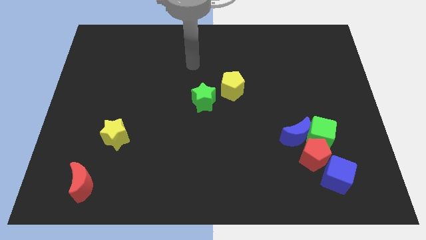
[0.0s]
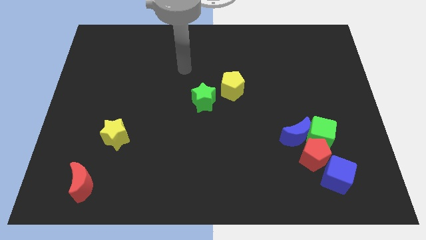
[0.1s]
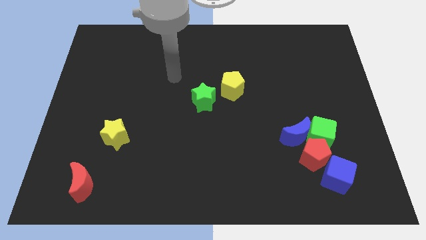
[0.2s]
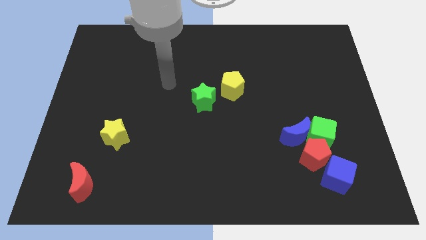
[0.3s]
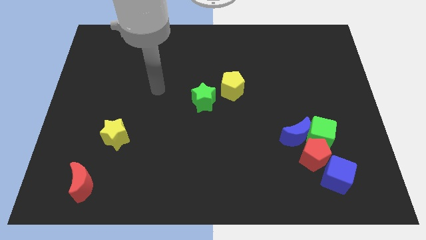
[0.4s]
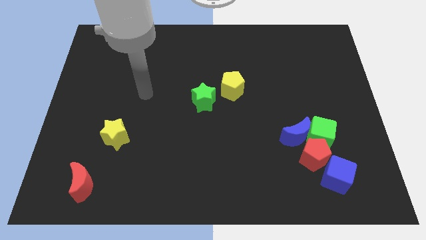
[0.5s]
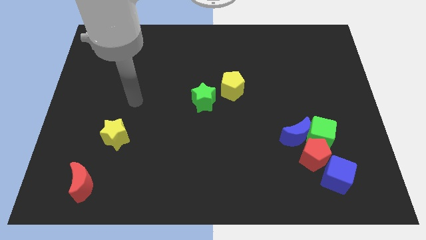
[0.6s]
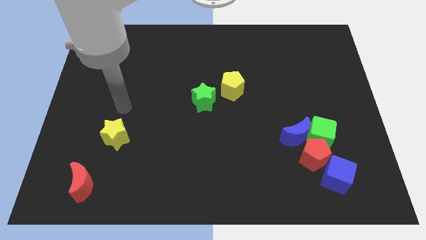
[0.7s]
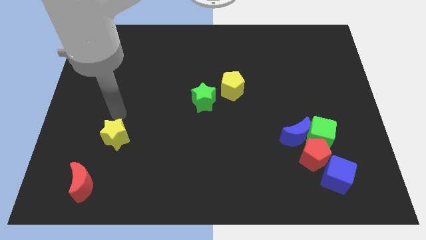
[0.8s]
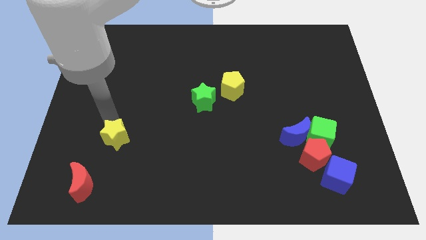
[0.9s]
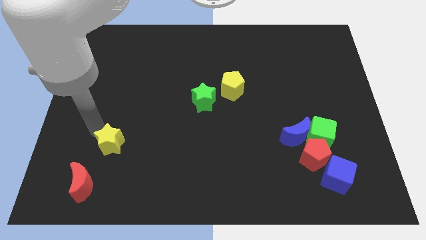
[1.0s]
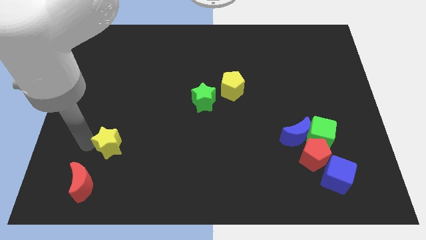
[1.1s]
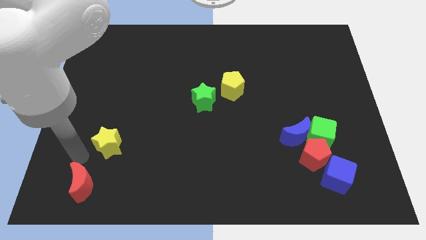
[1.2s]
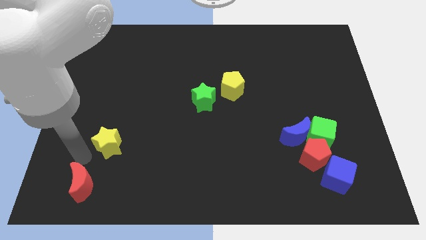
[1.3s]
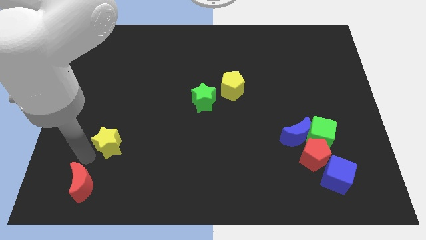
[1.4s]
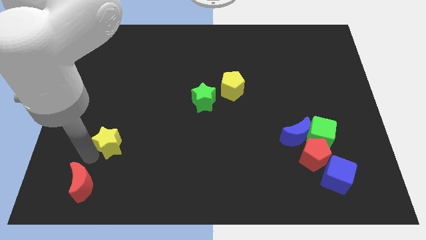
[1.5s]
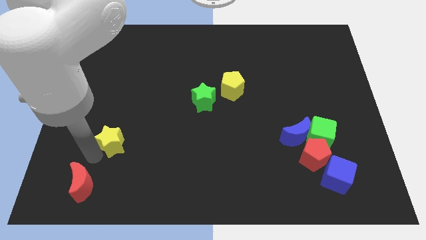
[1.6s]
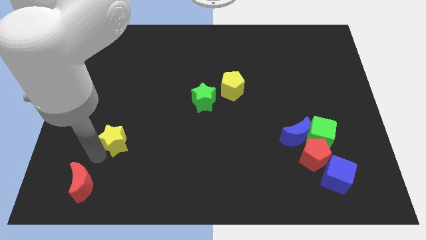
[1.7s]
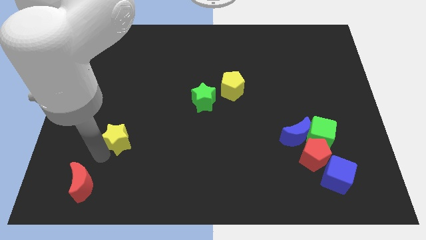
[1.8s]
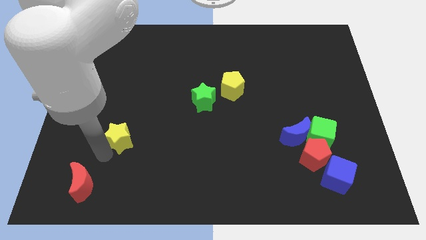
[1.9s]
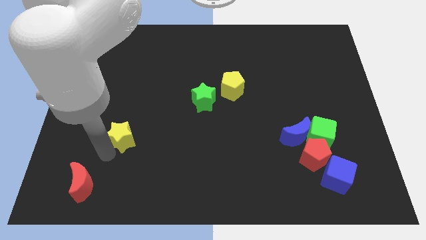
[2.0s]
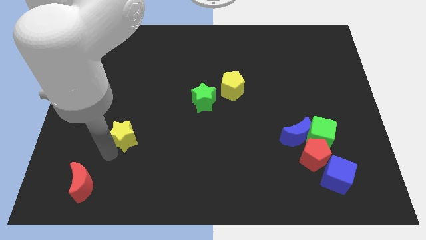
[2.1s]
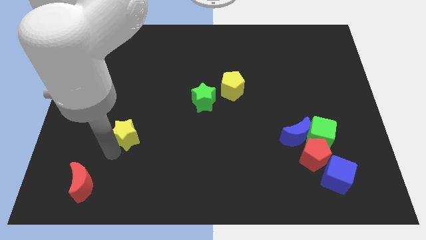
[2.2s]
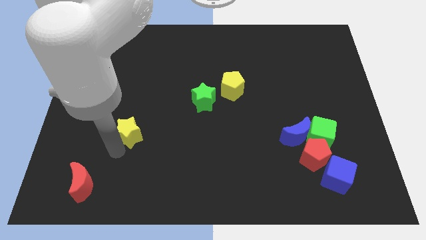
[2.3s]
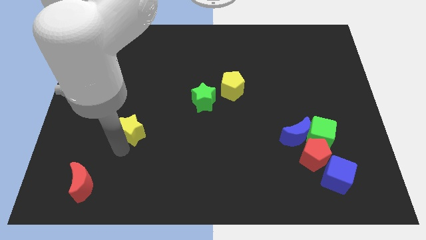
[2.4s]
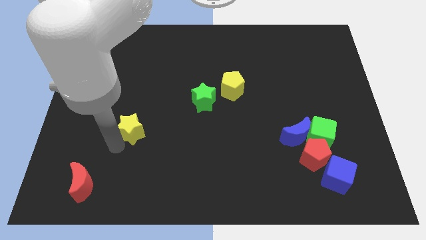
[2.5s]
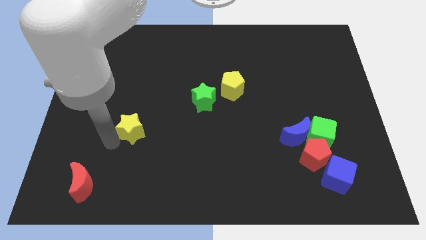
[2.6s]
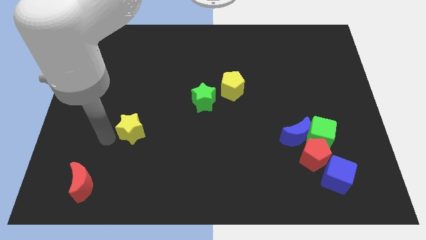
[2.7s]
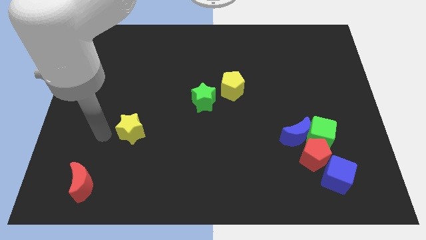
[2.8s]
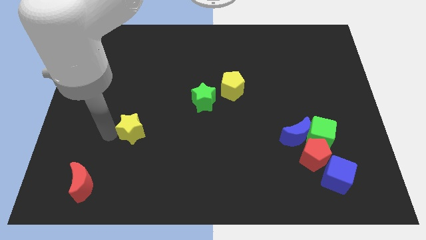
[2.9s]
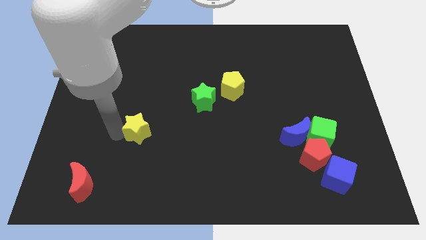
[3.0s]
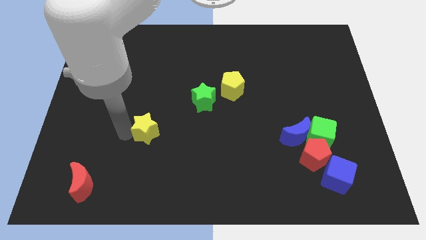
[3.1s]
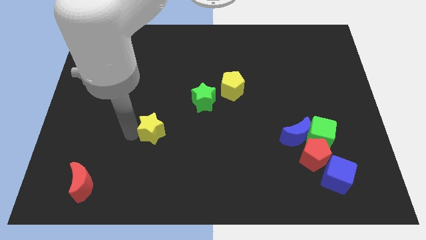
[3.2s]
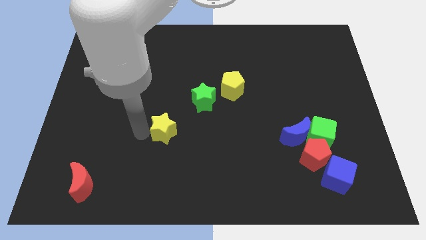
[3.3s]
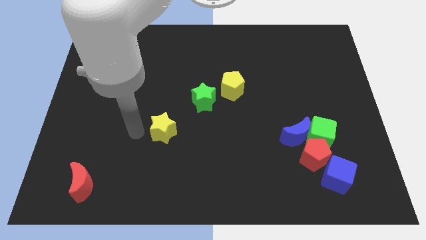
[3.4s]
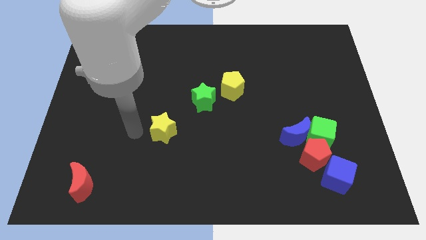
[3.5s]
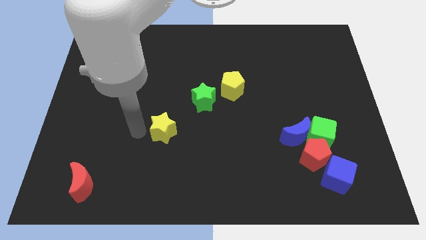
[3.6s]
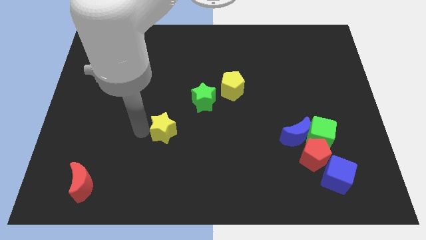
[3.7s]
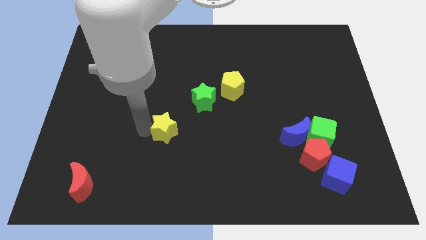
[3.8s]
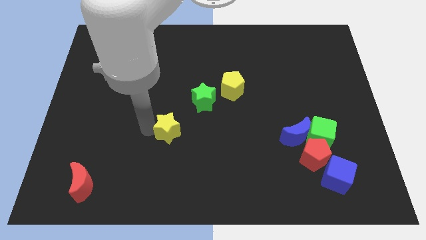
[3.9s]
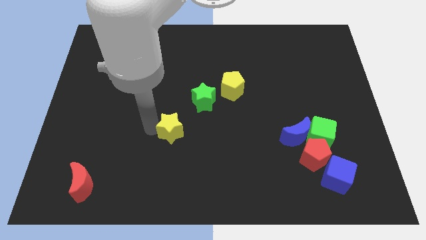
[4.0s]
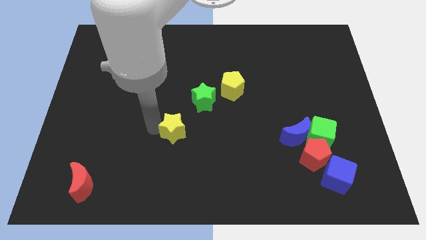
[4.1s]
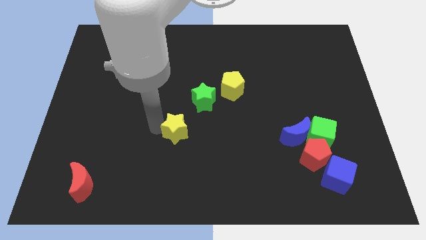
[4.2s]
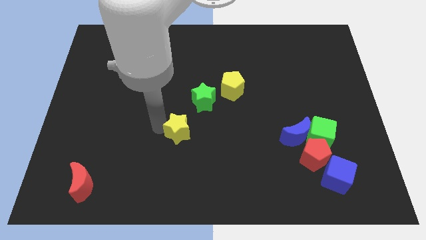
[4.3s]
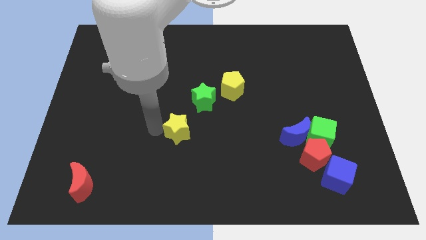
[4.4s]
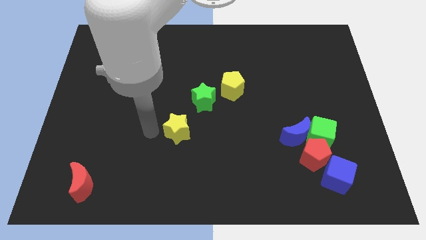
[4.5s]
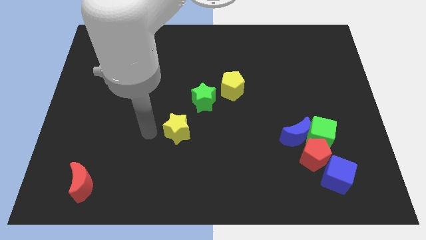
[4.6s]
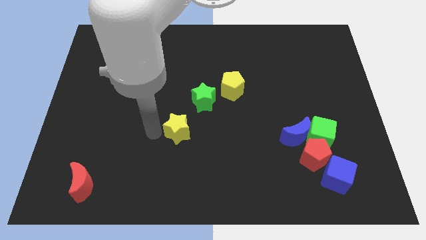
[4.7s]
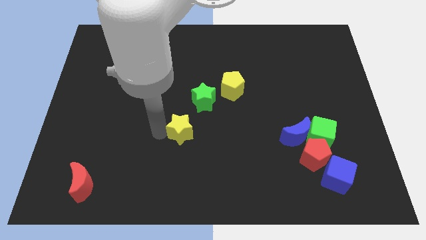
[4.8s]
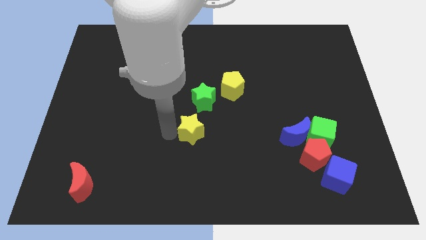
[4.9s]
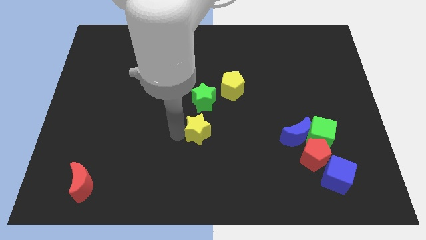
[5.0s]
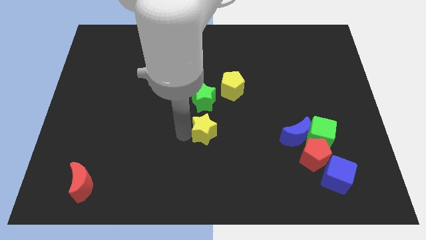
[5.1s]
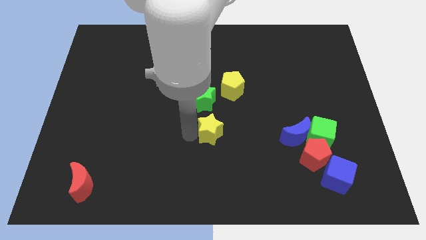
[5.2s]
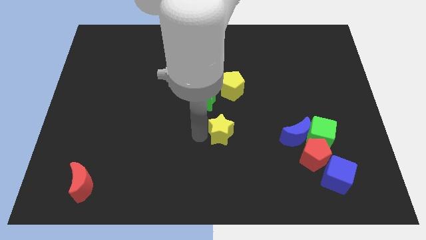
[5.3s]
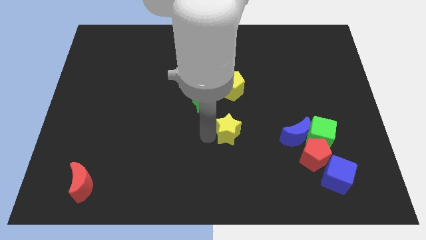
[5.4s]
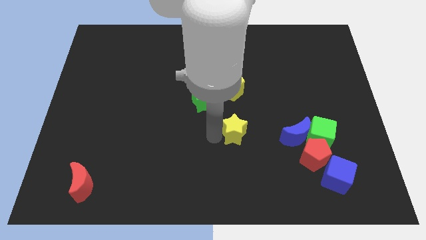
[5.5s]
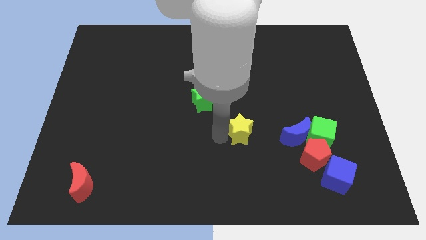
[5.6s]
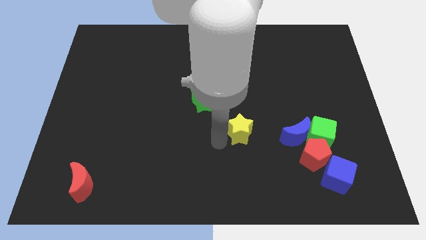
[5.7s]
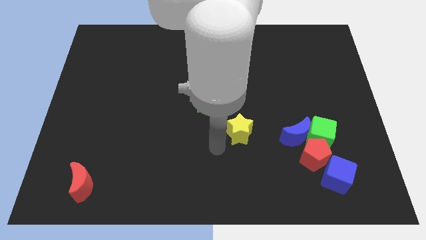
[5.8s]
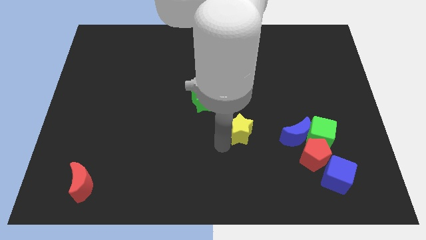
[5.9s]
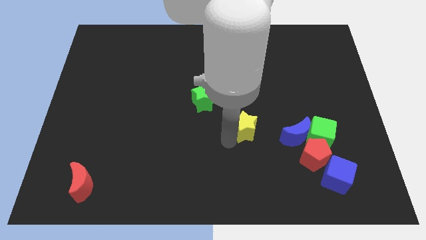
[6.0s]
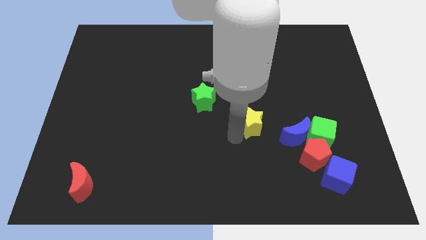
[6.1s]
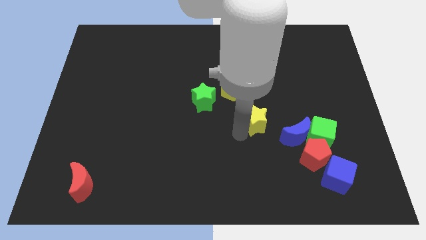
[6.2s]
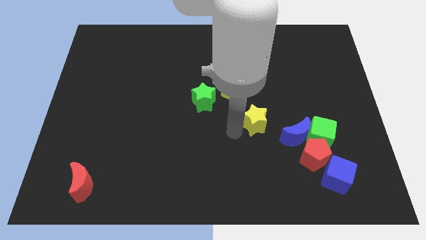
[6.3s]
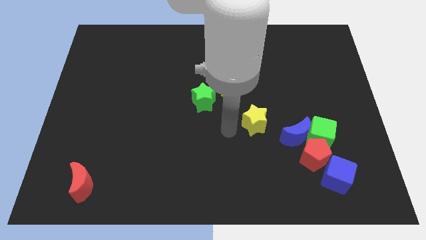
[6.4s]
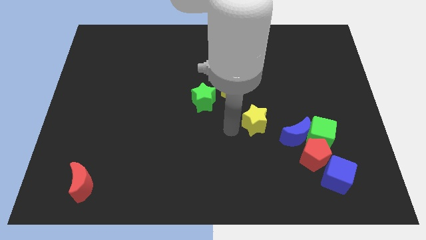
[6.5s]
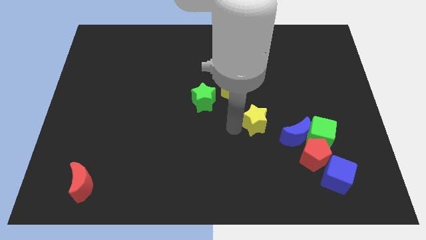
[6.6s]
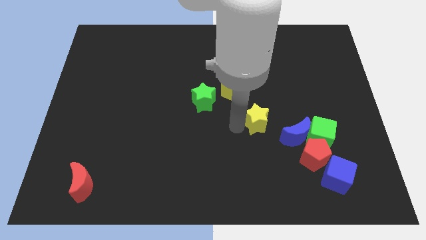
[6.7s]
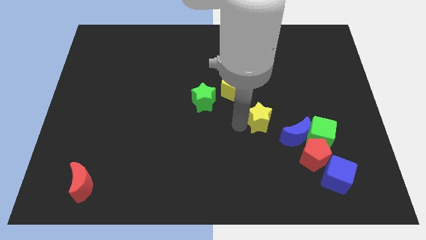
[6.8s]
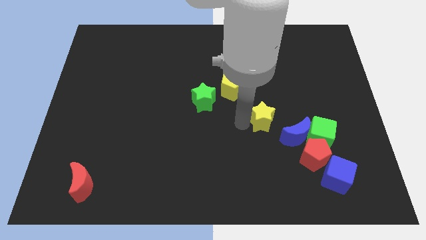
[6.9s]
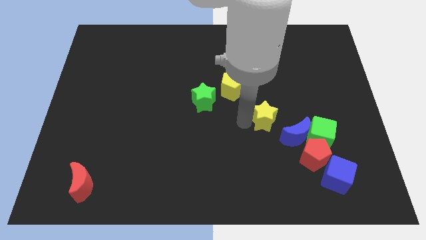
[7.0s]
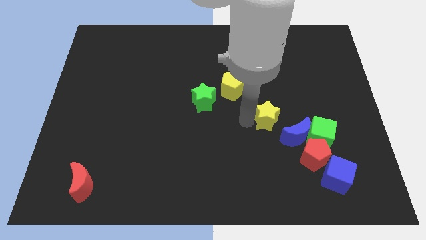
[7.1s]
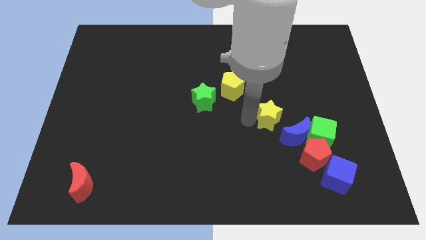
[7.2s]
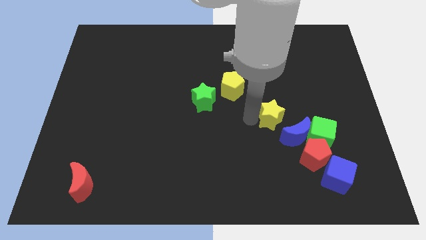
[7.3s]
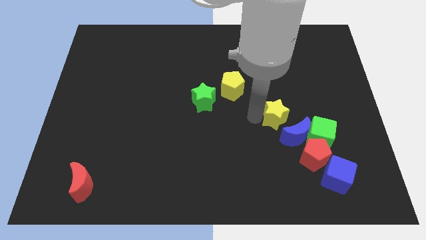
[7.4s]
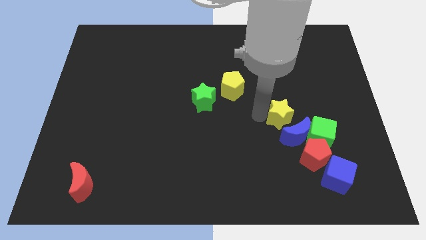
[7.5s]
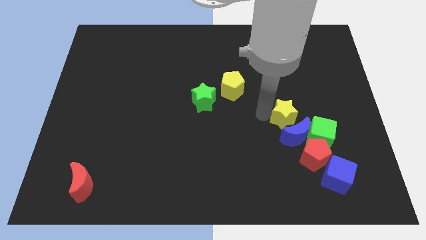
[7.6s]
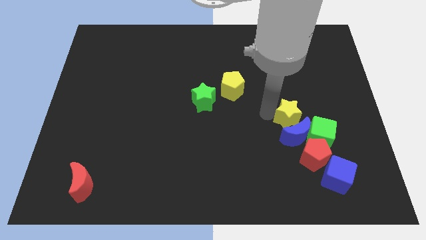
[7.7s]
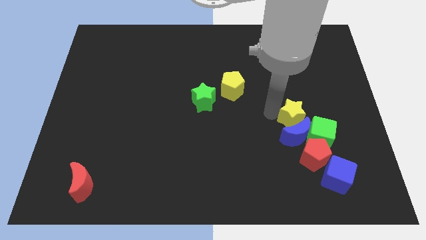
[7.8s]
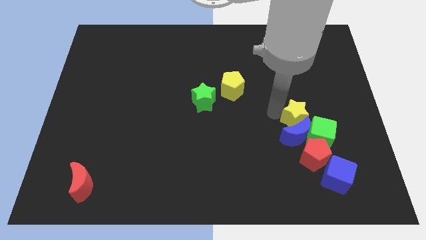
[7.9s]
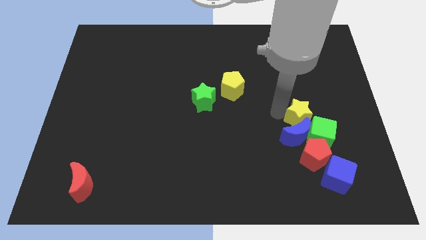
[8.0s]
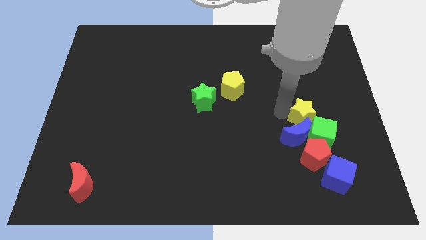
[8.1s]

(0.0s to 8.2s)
put the yellow star towards the green cube

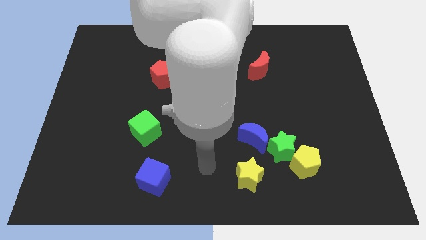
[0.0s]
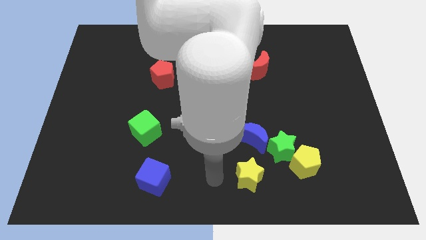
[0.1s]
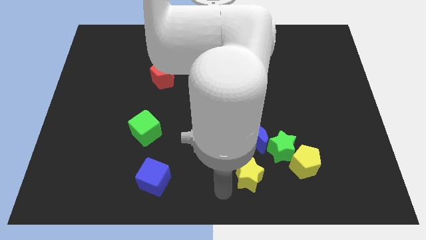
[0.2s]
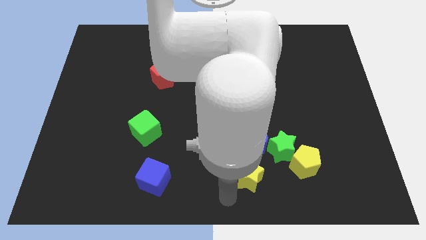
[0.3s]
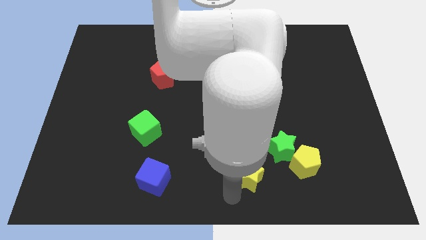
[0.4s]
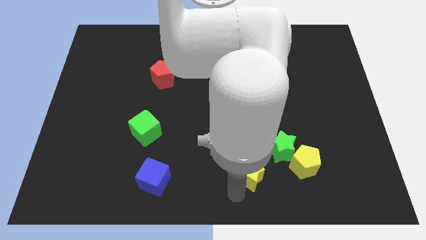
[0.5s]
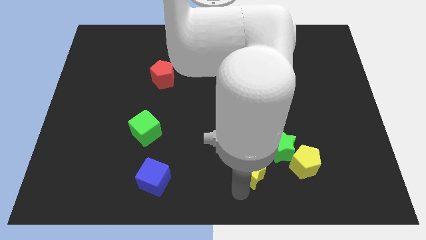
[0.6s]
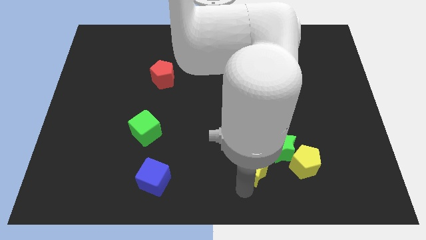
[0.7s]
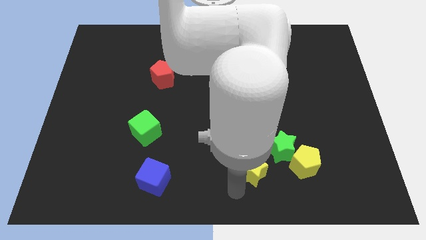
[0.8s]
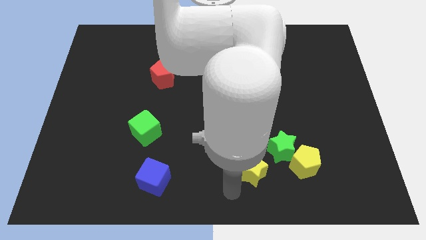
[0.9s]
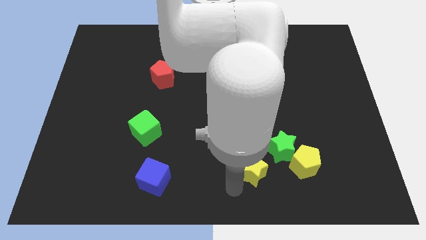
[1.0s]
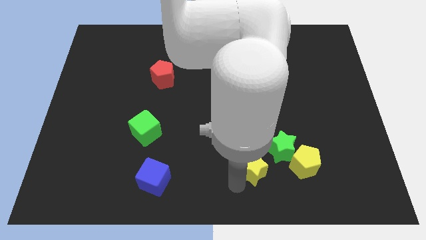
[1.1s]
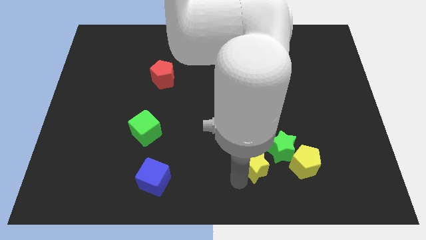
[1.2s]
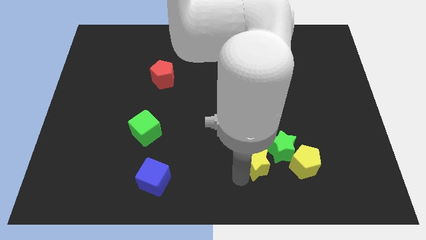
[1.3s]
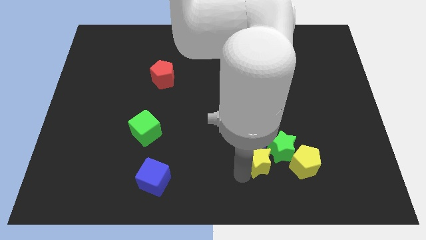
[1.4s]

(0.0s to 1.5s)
push the yellow star next to the green star
